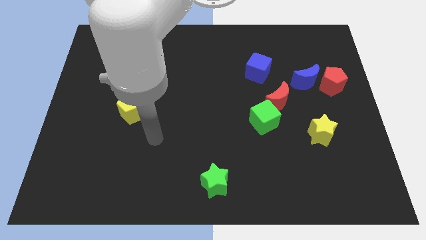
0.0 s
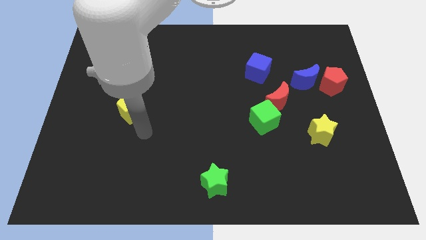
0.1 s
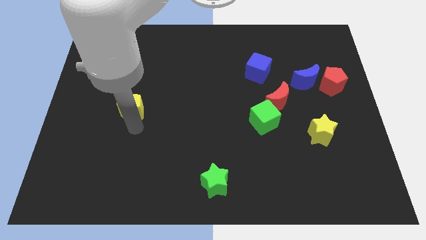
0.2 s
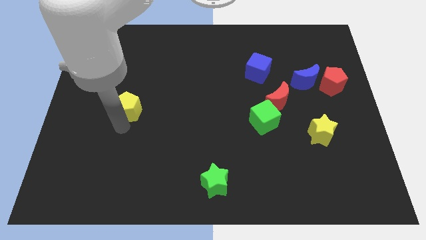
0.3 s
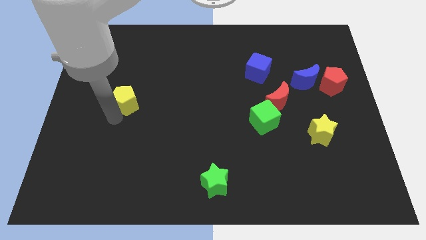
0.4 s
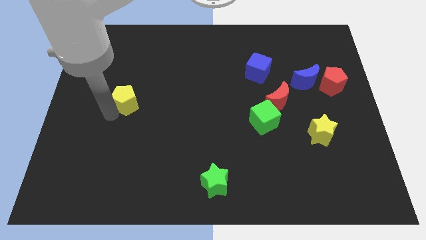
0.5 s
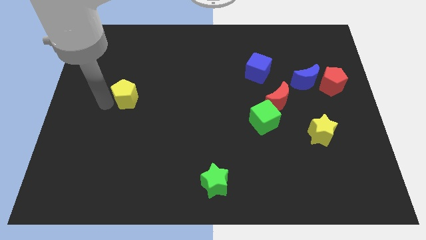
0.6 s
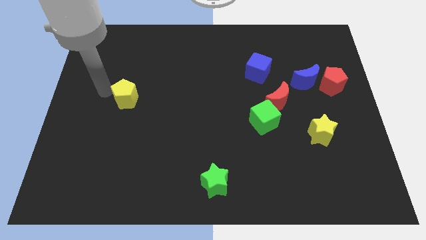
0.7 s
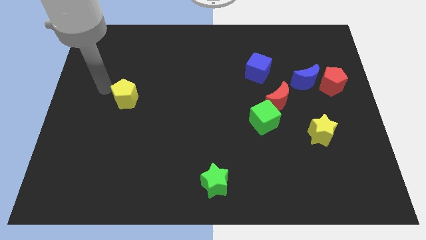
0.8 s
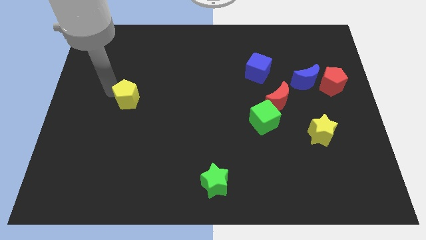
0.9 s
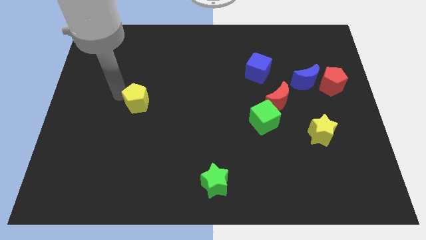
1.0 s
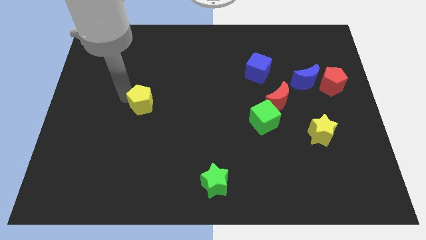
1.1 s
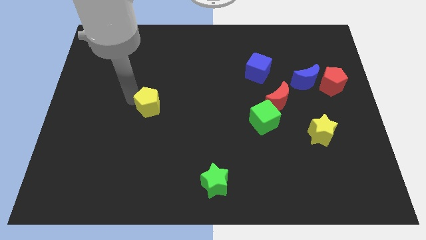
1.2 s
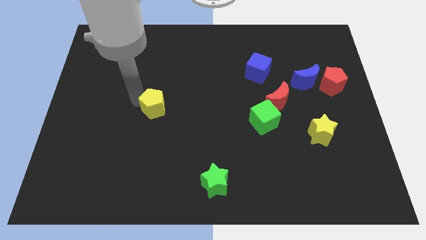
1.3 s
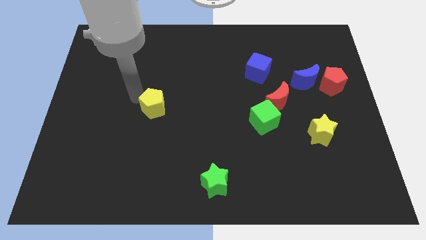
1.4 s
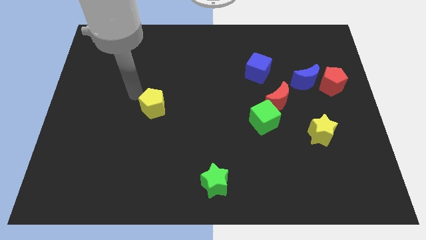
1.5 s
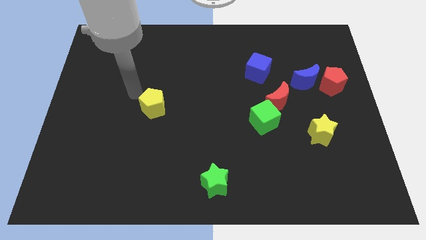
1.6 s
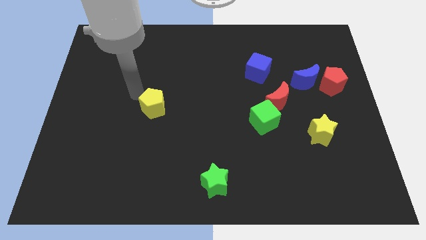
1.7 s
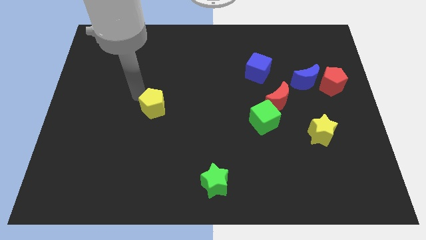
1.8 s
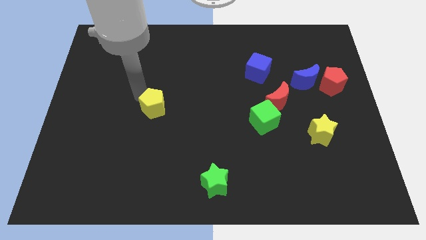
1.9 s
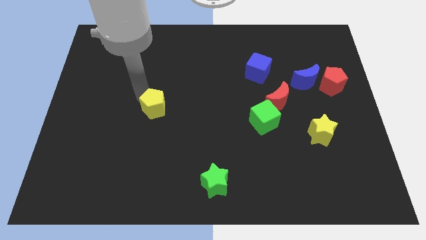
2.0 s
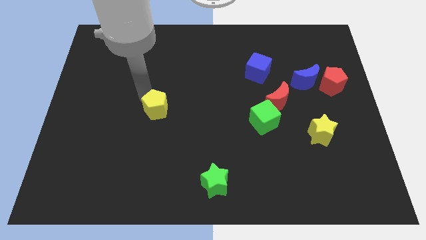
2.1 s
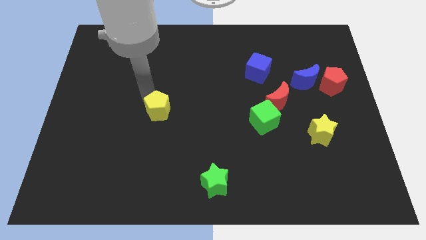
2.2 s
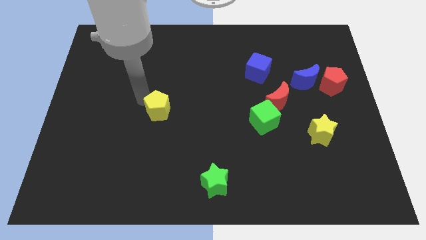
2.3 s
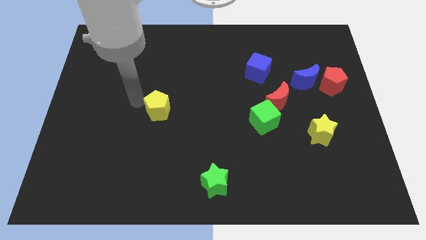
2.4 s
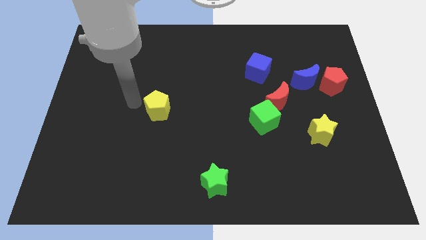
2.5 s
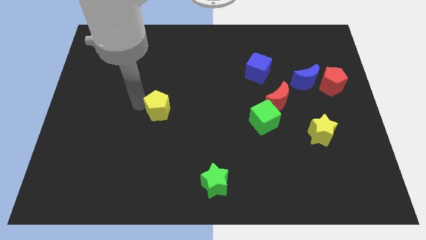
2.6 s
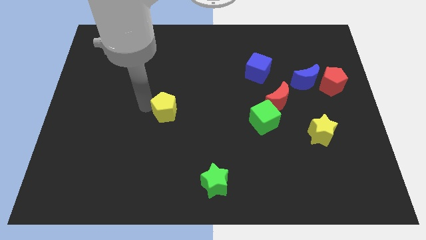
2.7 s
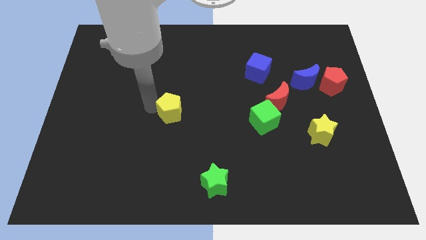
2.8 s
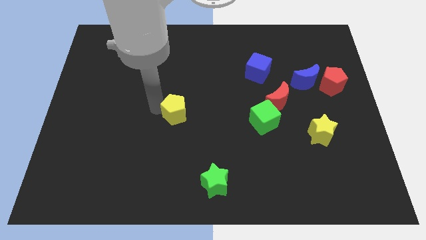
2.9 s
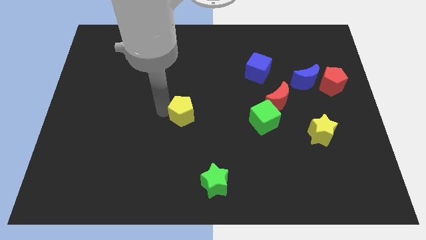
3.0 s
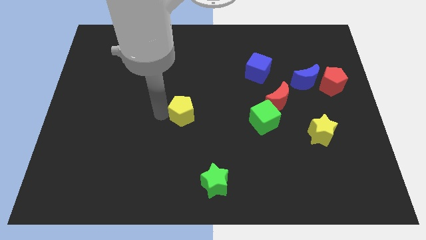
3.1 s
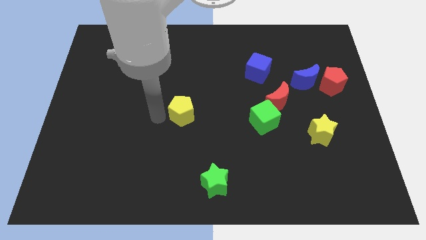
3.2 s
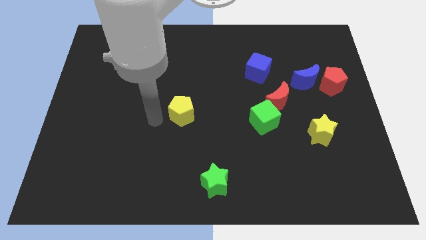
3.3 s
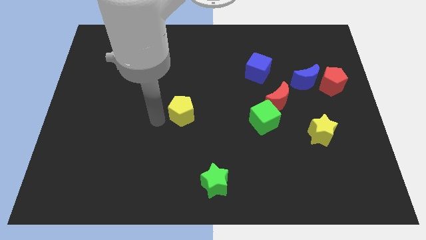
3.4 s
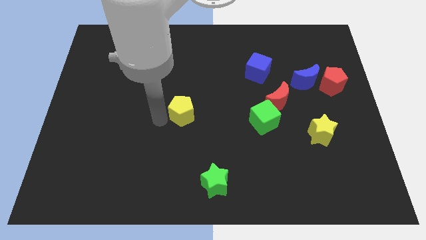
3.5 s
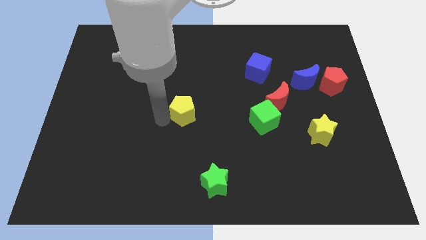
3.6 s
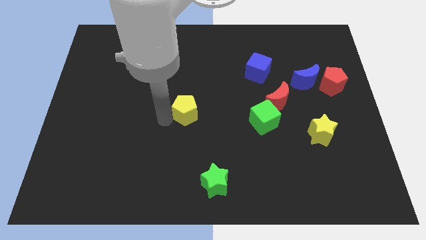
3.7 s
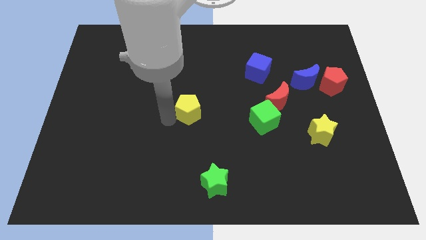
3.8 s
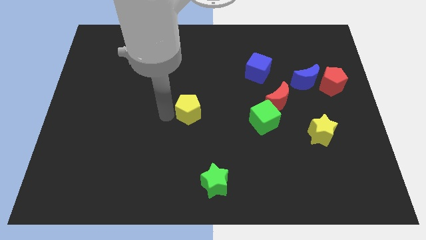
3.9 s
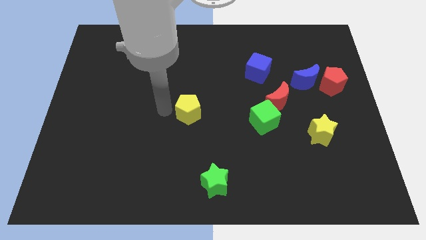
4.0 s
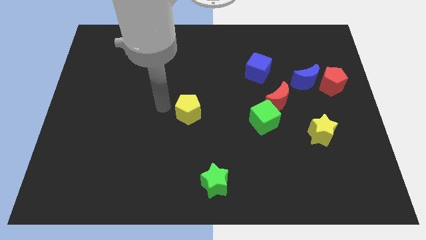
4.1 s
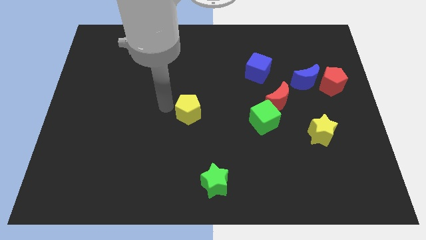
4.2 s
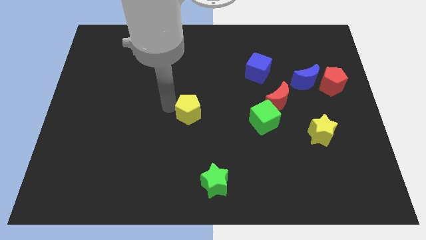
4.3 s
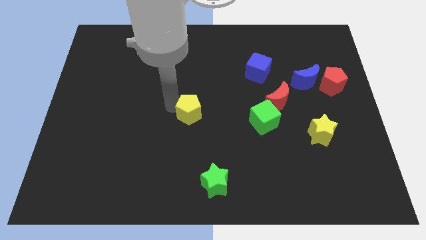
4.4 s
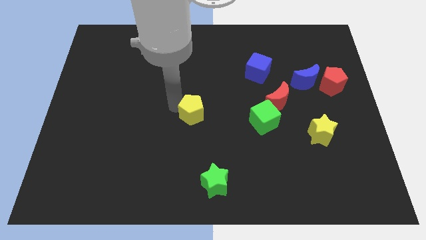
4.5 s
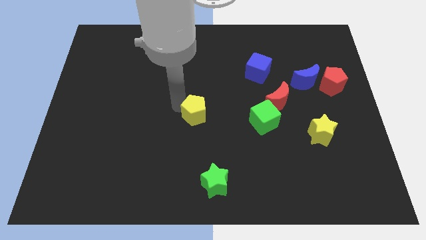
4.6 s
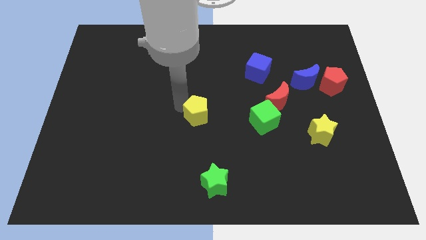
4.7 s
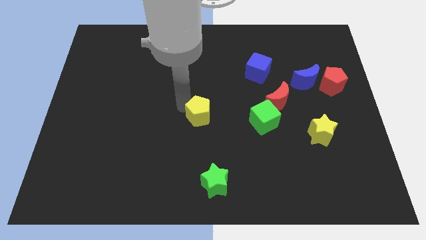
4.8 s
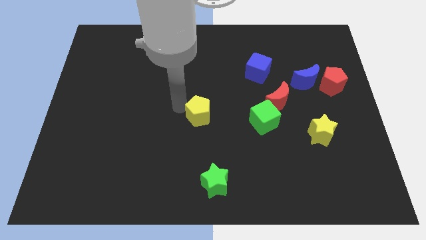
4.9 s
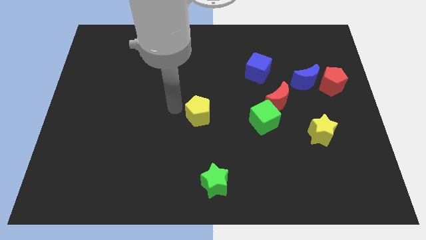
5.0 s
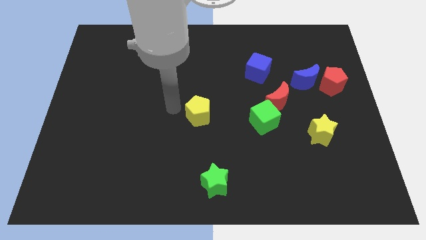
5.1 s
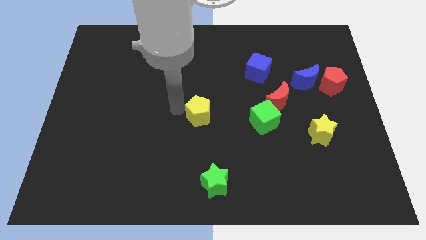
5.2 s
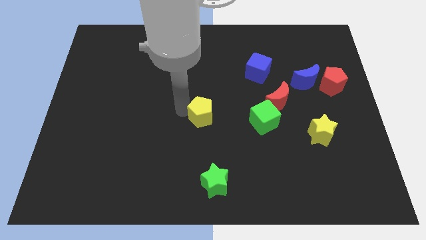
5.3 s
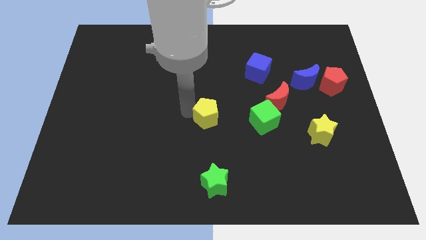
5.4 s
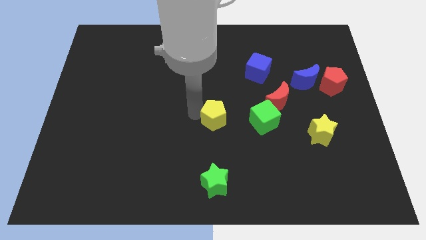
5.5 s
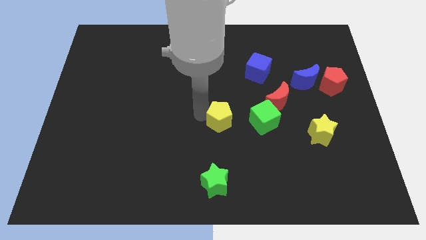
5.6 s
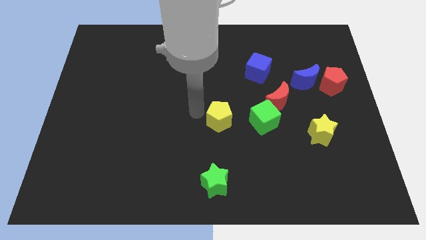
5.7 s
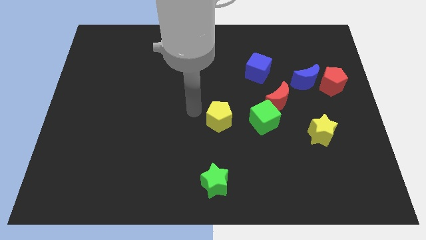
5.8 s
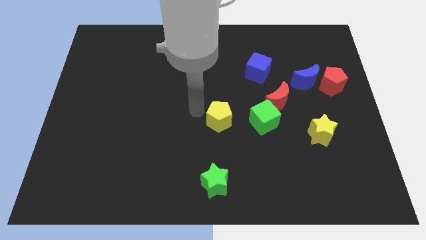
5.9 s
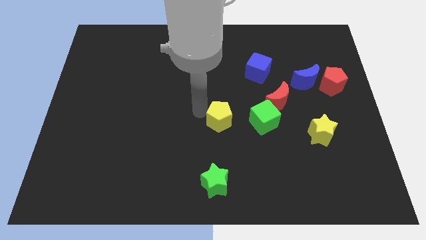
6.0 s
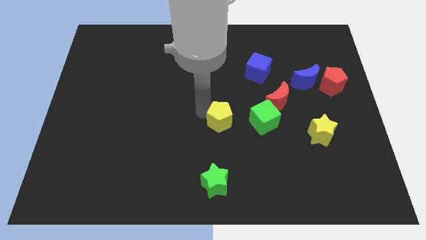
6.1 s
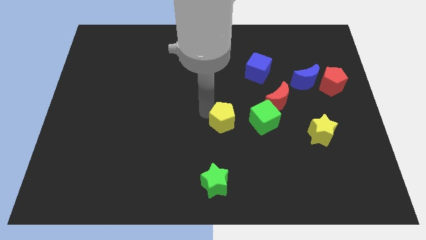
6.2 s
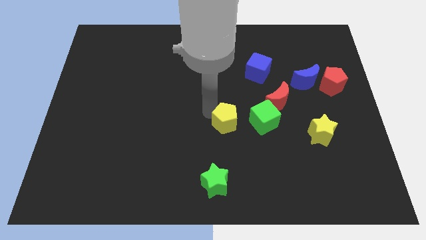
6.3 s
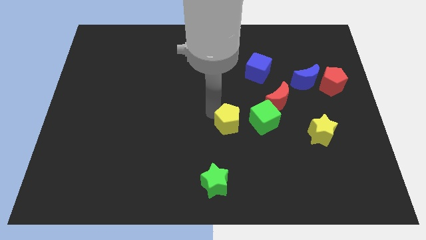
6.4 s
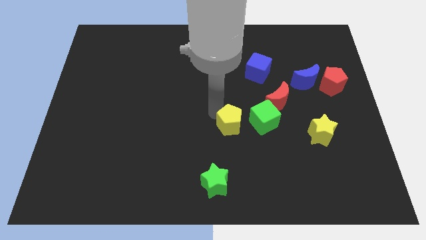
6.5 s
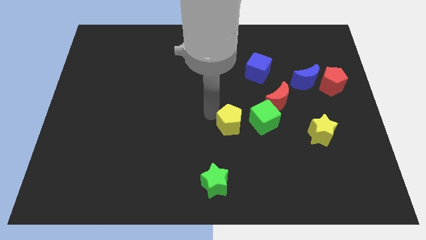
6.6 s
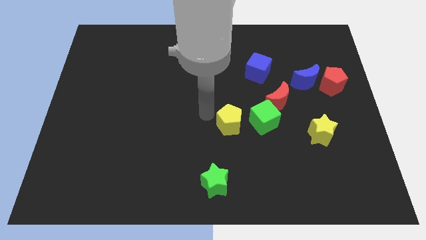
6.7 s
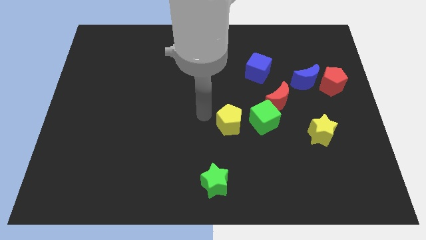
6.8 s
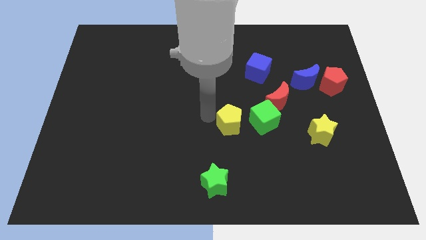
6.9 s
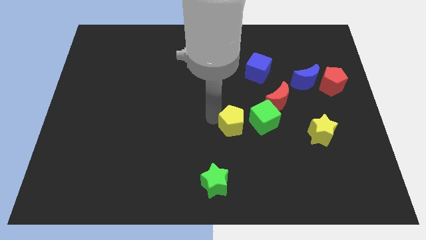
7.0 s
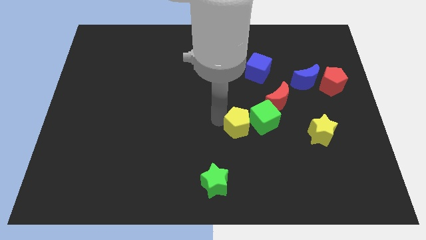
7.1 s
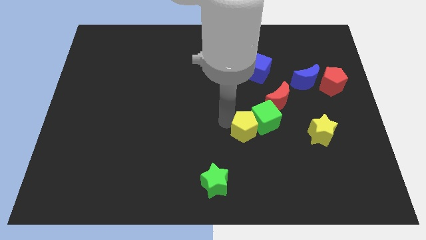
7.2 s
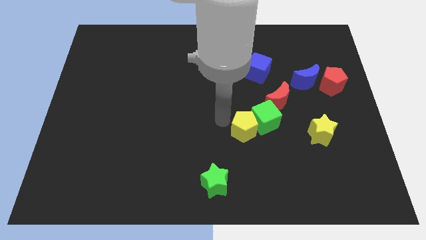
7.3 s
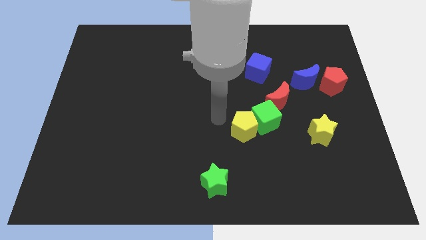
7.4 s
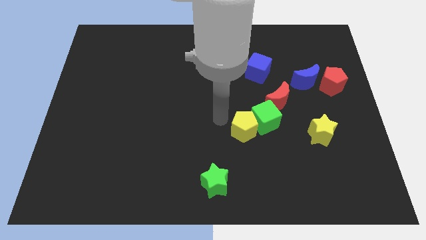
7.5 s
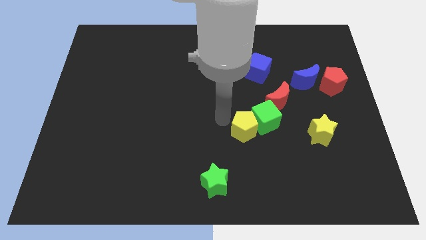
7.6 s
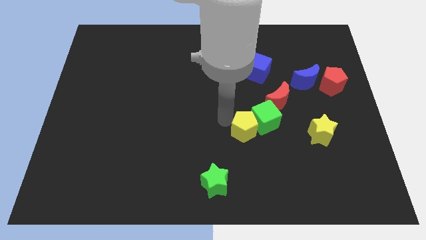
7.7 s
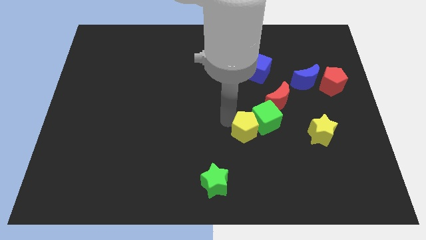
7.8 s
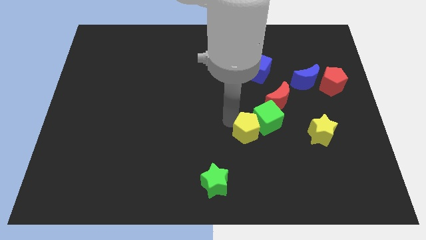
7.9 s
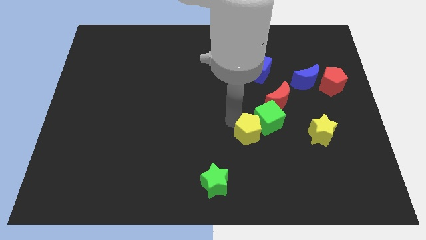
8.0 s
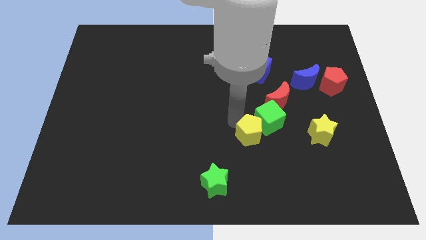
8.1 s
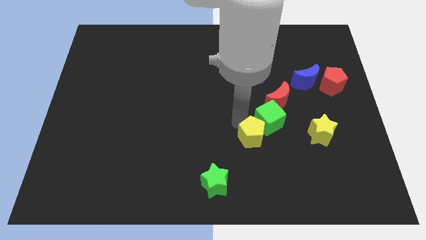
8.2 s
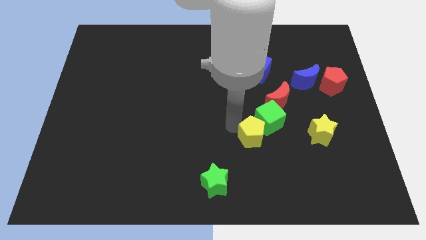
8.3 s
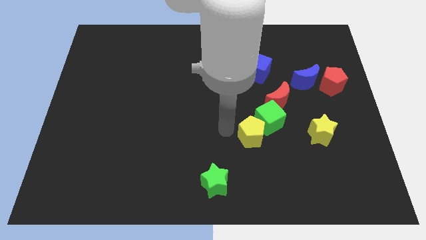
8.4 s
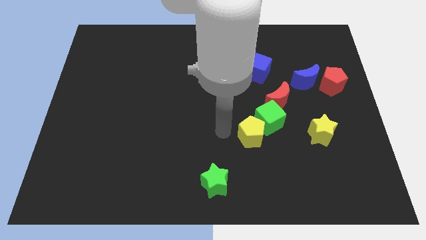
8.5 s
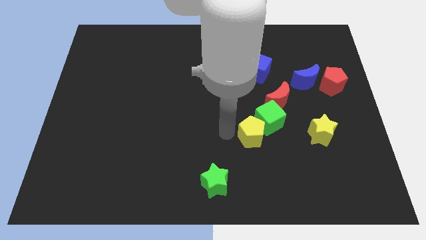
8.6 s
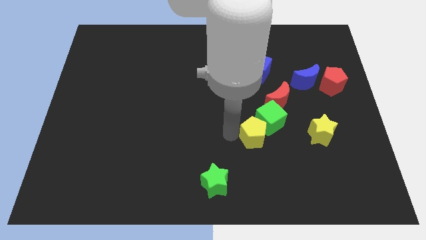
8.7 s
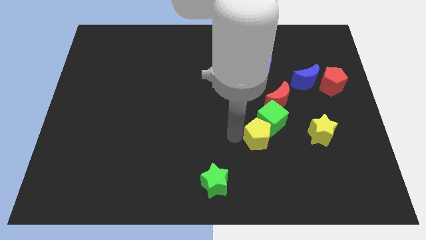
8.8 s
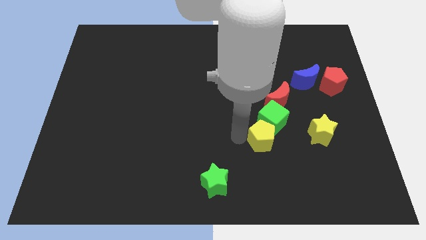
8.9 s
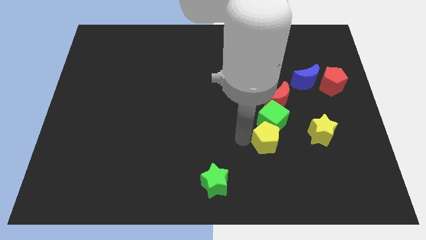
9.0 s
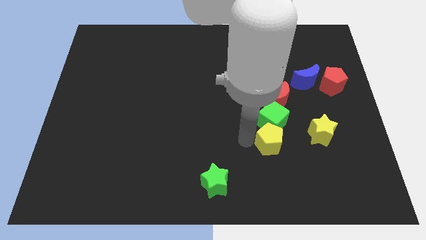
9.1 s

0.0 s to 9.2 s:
push the yellow pentagon to the bottom right of the green cube
